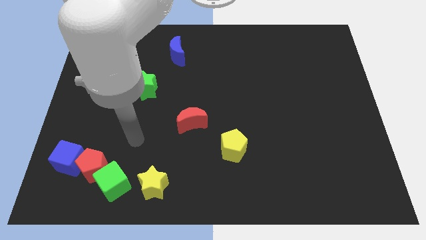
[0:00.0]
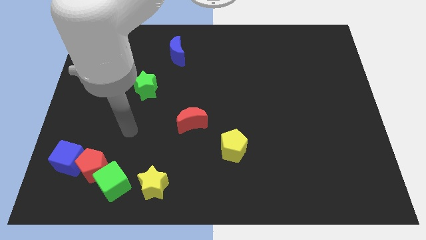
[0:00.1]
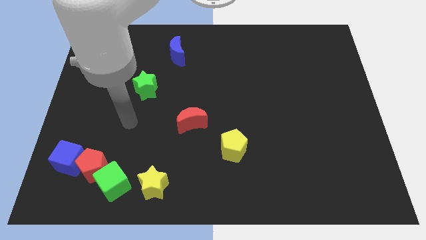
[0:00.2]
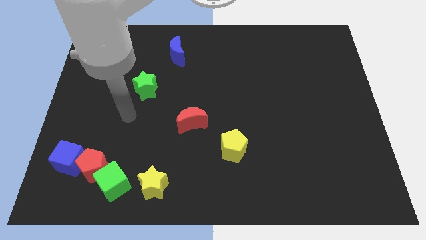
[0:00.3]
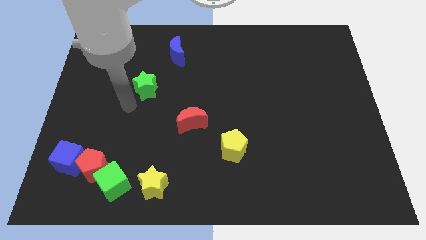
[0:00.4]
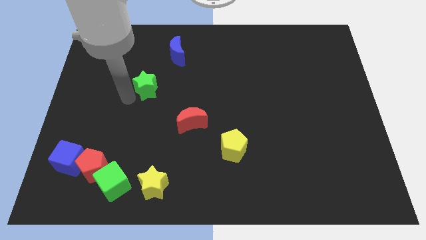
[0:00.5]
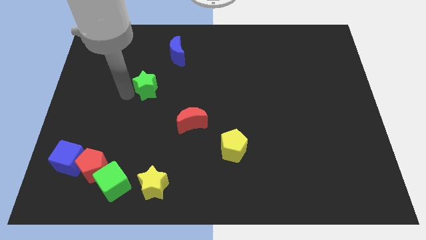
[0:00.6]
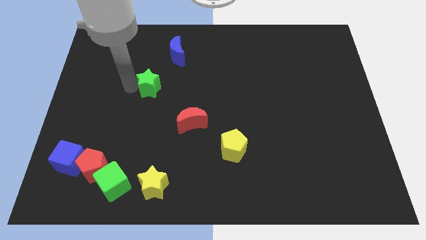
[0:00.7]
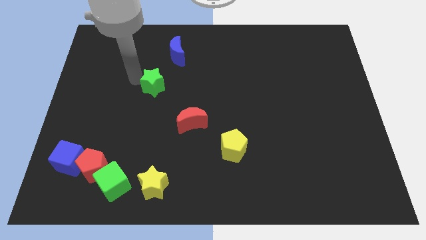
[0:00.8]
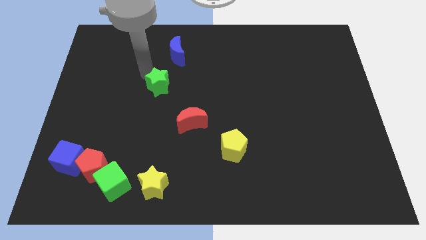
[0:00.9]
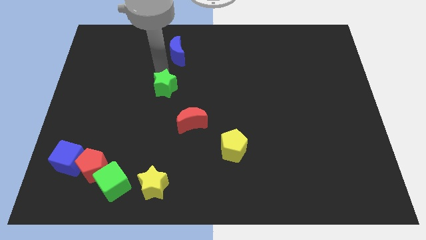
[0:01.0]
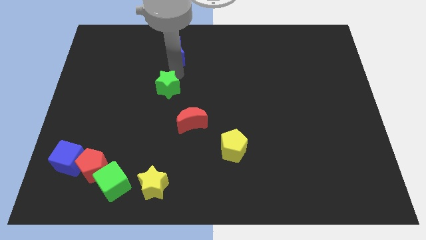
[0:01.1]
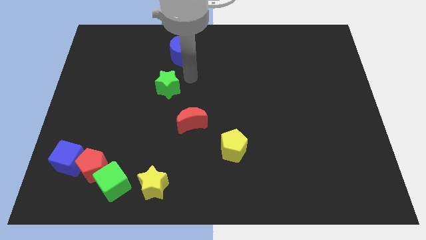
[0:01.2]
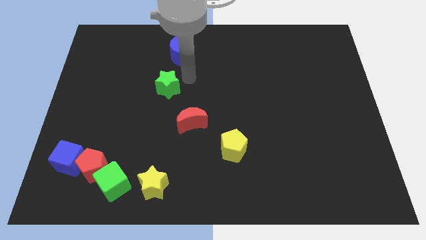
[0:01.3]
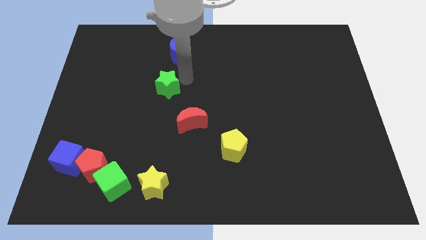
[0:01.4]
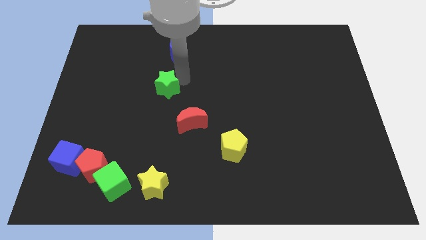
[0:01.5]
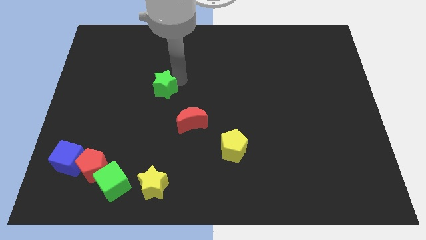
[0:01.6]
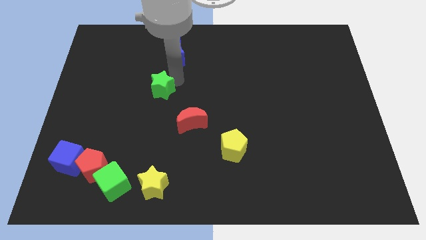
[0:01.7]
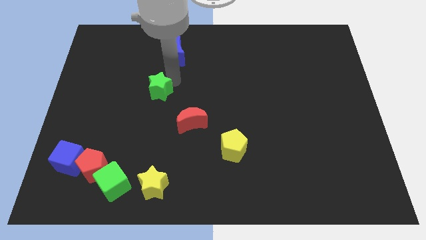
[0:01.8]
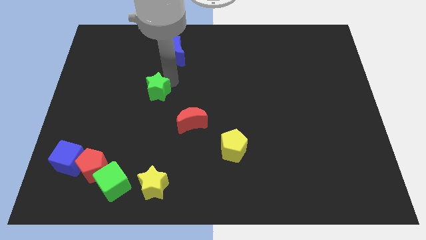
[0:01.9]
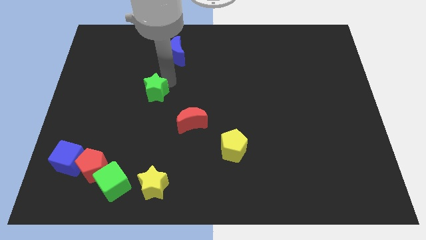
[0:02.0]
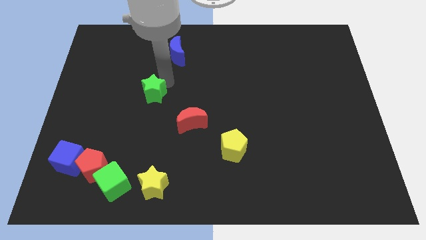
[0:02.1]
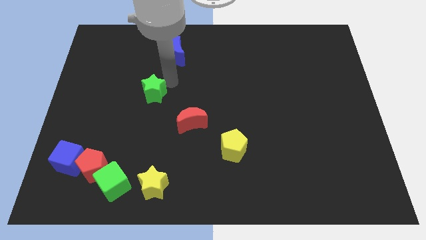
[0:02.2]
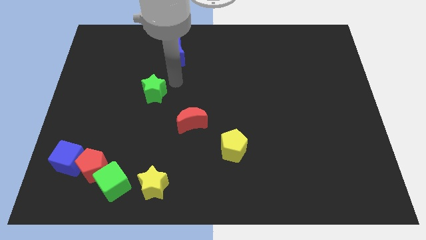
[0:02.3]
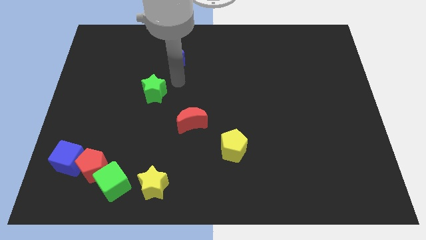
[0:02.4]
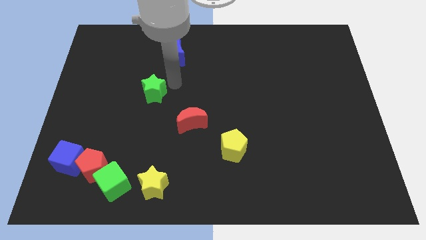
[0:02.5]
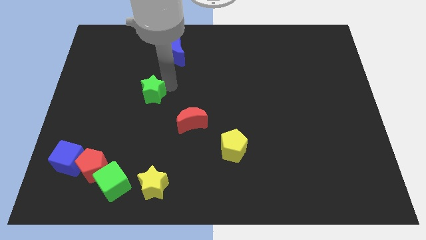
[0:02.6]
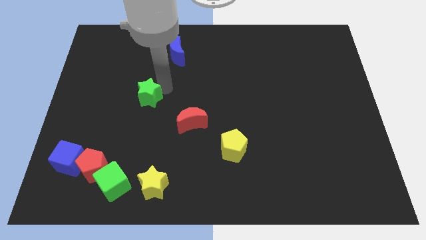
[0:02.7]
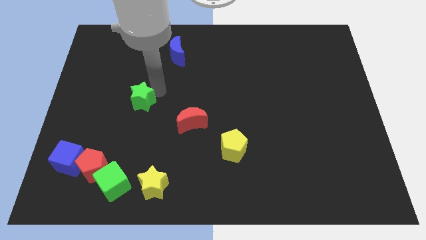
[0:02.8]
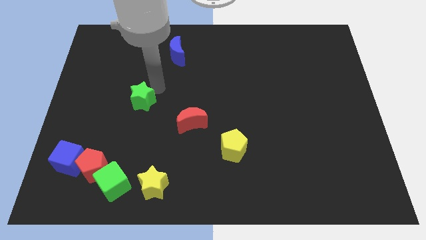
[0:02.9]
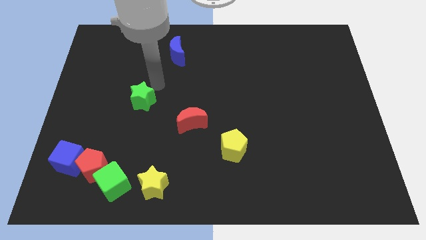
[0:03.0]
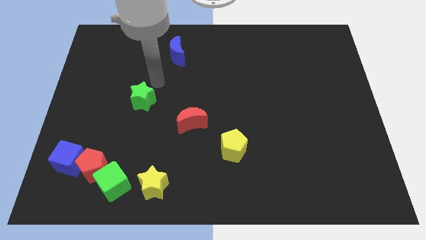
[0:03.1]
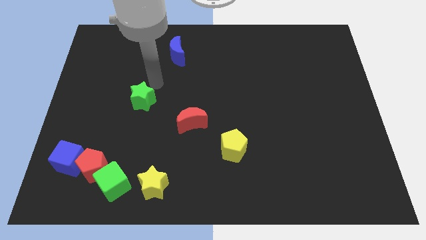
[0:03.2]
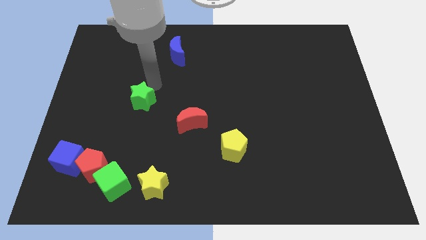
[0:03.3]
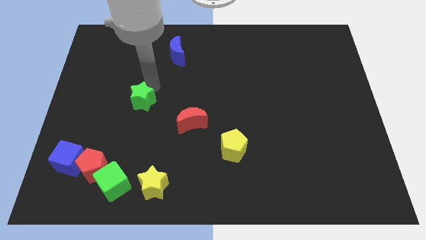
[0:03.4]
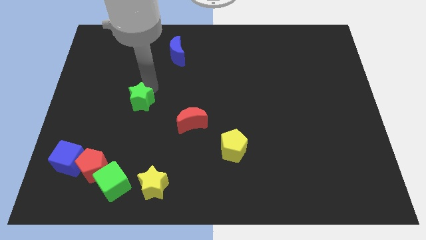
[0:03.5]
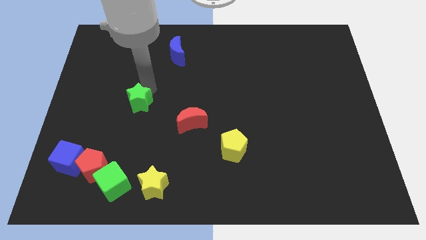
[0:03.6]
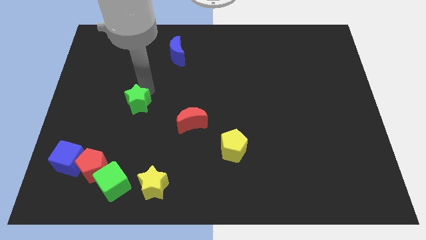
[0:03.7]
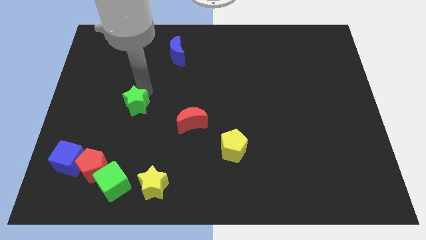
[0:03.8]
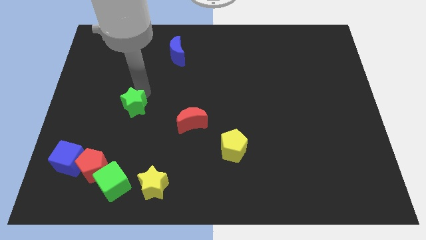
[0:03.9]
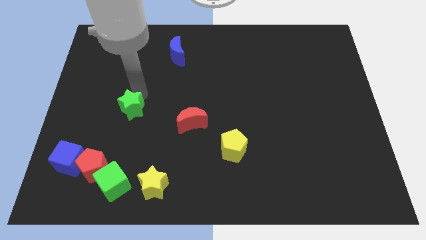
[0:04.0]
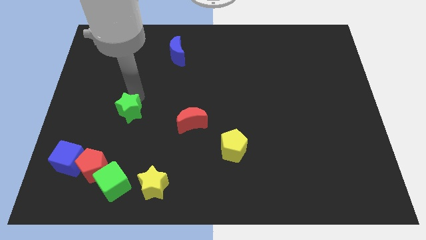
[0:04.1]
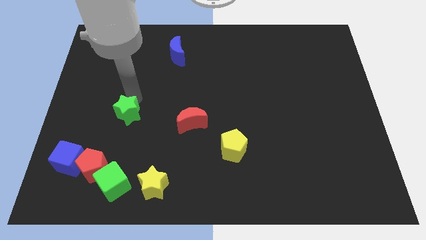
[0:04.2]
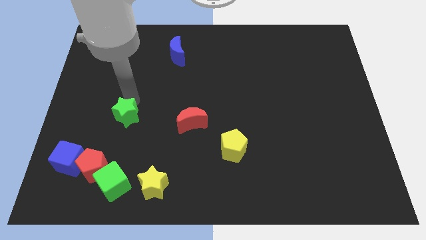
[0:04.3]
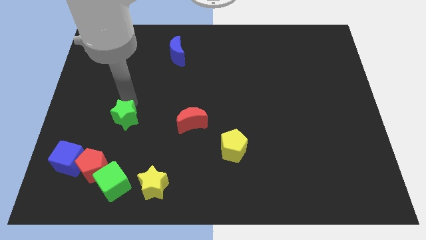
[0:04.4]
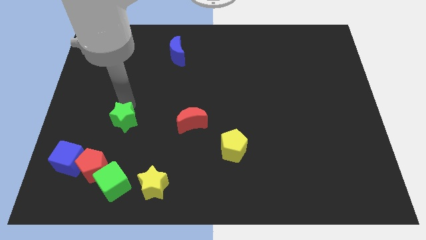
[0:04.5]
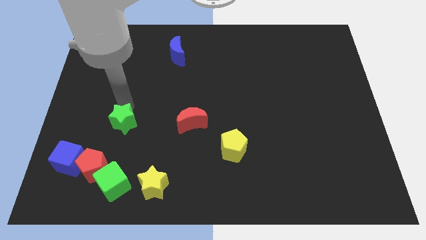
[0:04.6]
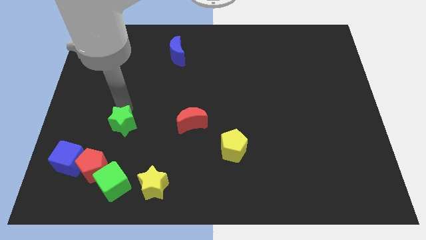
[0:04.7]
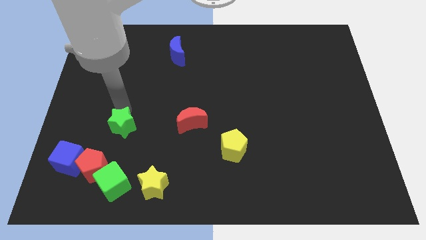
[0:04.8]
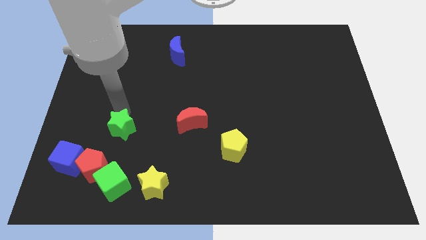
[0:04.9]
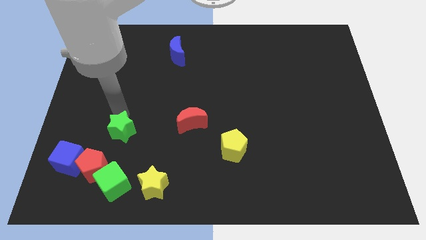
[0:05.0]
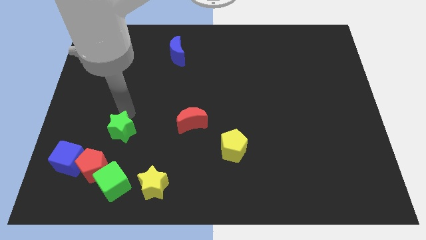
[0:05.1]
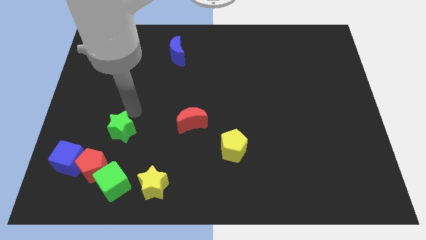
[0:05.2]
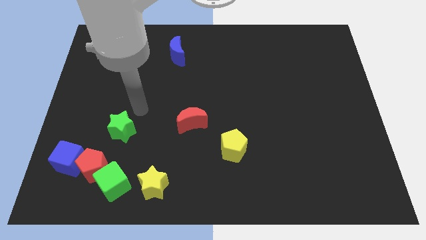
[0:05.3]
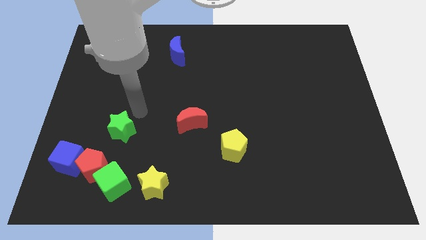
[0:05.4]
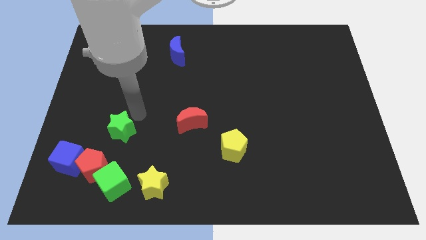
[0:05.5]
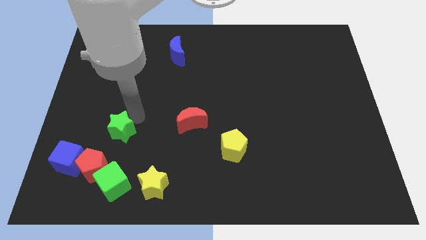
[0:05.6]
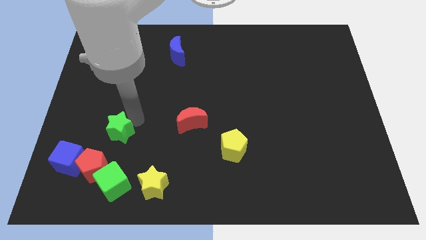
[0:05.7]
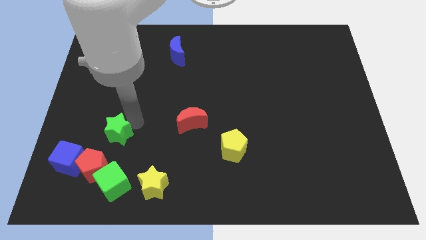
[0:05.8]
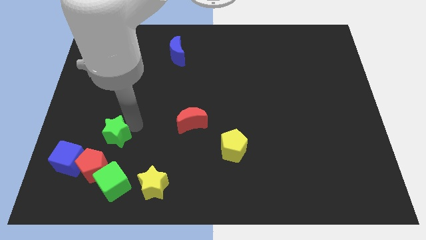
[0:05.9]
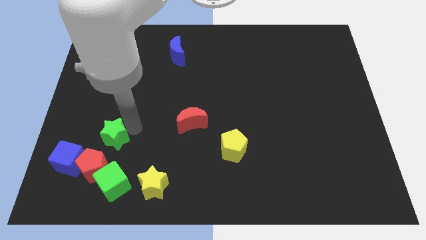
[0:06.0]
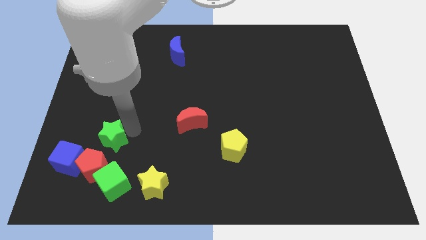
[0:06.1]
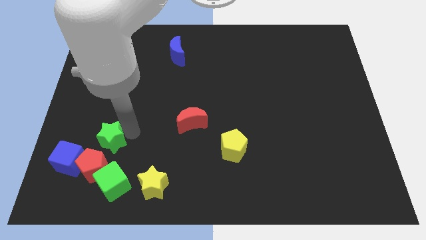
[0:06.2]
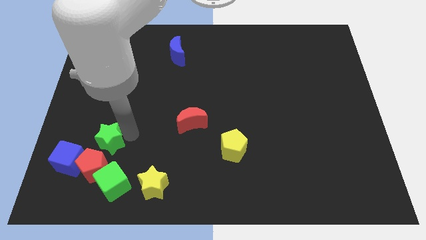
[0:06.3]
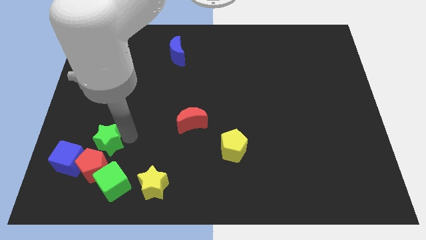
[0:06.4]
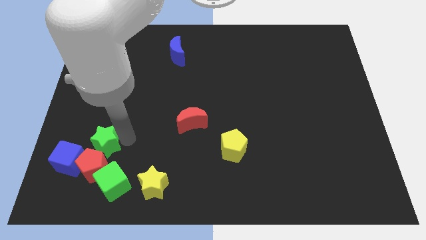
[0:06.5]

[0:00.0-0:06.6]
push the green star next to the red pentagon

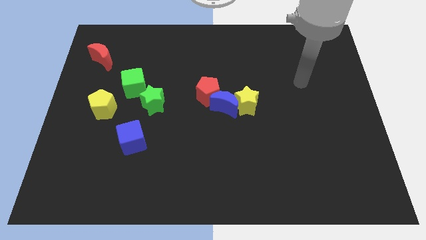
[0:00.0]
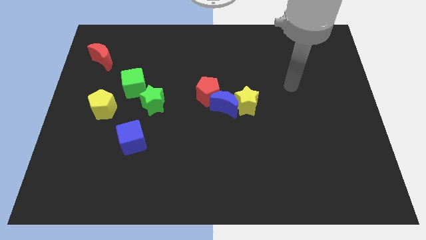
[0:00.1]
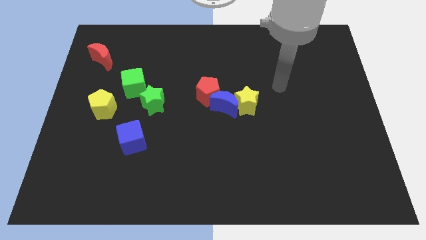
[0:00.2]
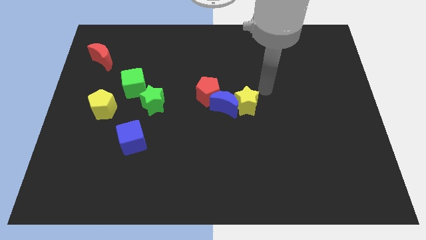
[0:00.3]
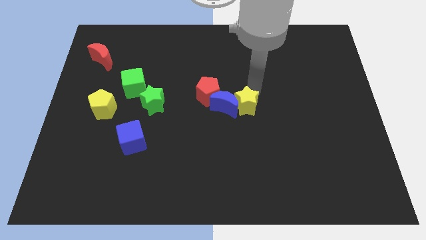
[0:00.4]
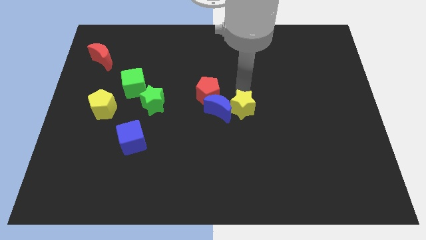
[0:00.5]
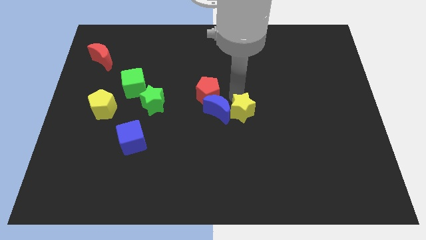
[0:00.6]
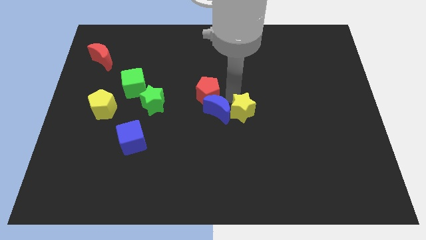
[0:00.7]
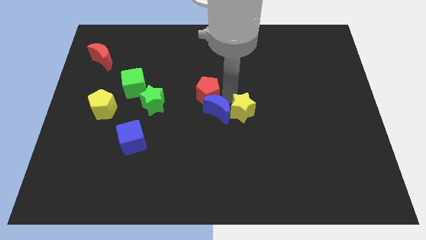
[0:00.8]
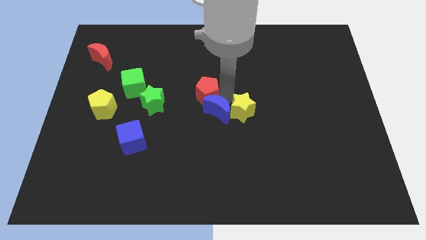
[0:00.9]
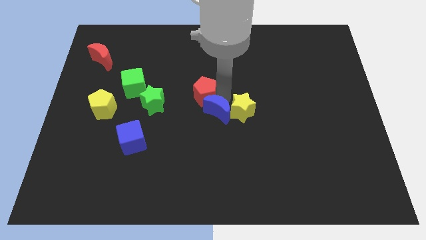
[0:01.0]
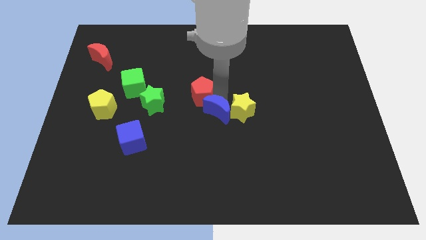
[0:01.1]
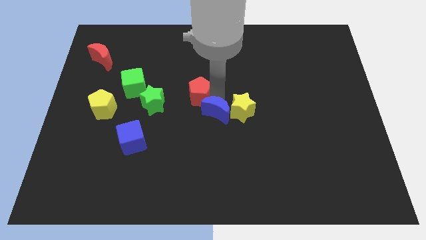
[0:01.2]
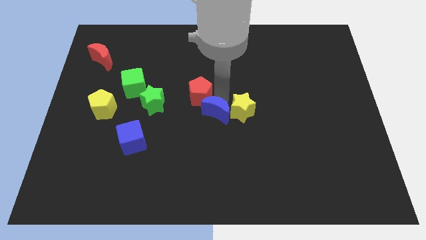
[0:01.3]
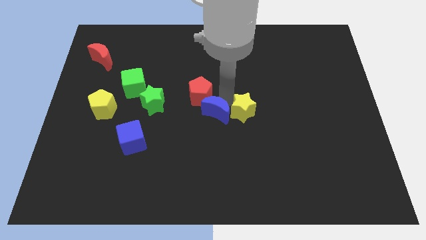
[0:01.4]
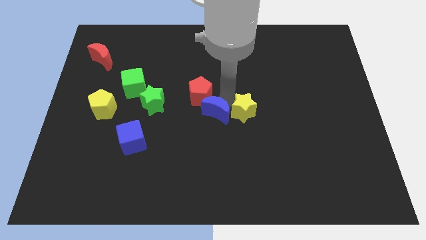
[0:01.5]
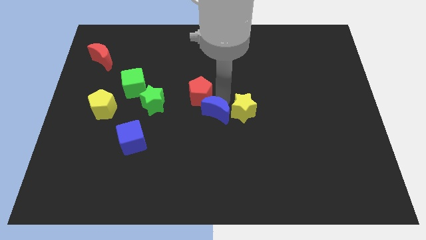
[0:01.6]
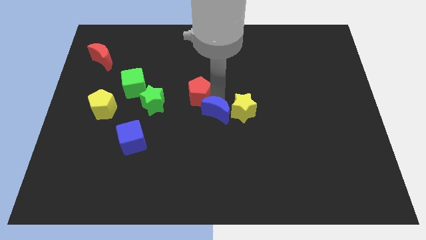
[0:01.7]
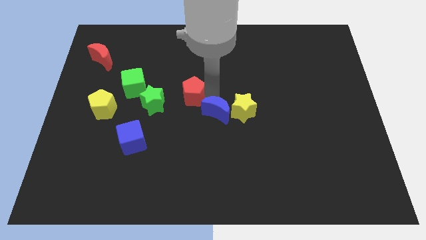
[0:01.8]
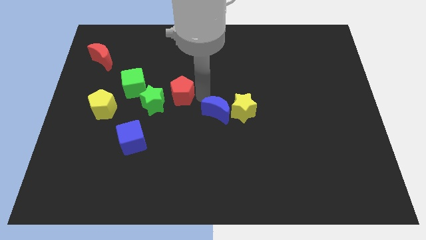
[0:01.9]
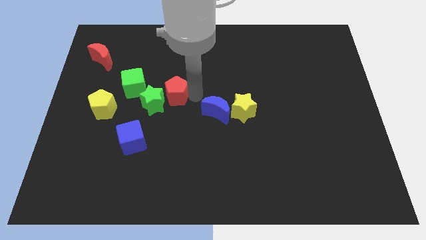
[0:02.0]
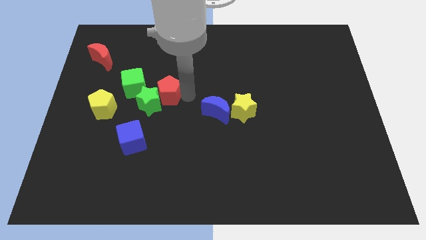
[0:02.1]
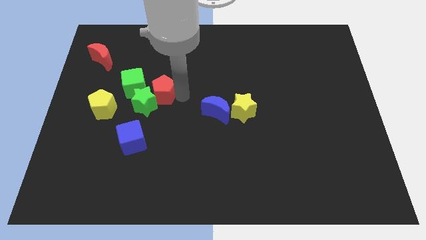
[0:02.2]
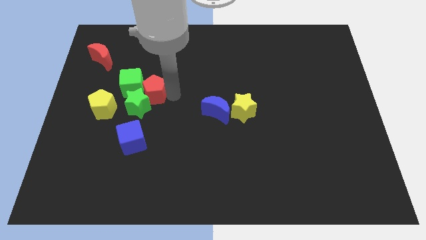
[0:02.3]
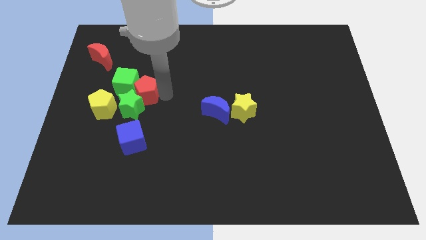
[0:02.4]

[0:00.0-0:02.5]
move the red pentagon to the green cube
